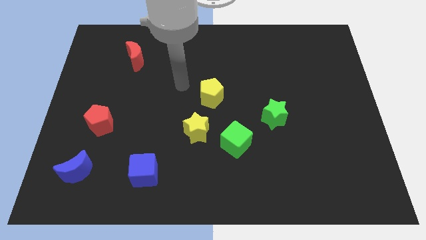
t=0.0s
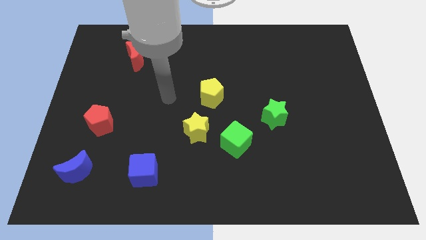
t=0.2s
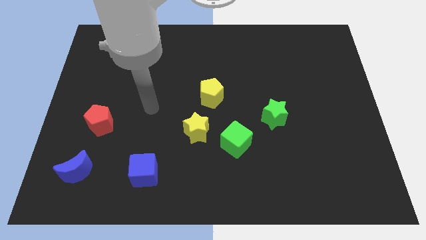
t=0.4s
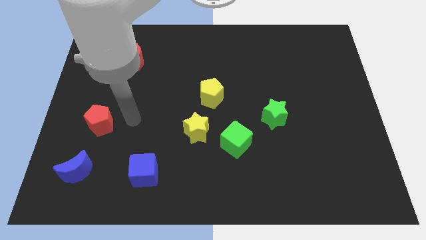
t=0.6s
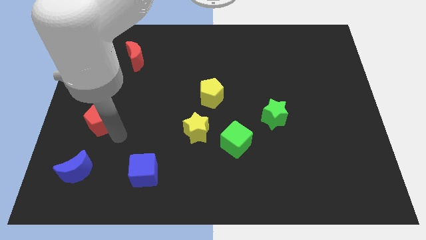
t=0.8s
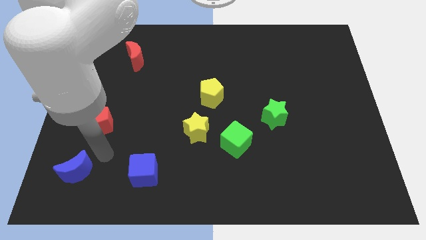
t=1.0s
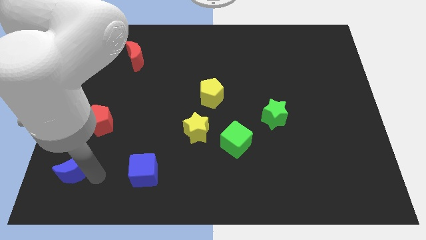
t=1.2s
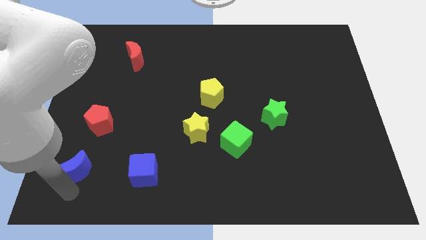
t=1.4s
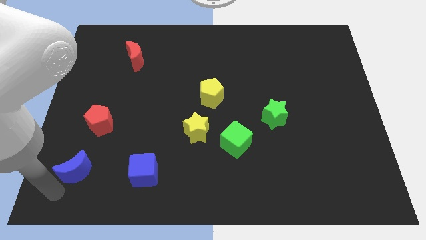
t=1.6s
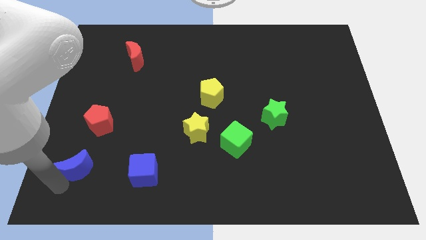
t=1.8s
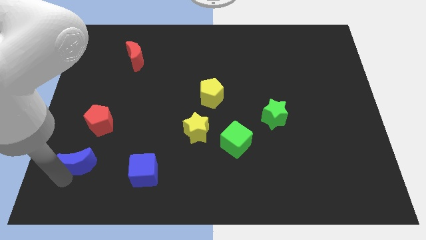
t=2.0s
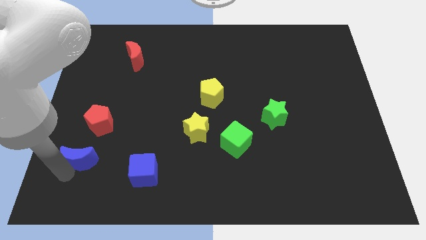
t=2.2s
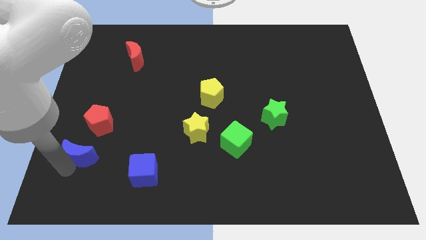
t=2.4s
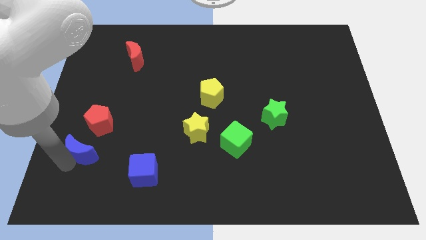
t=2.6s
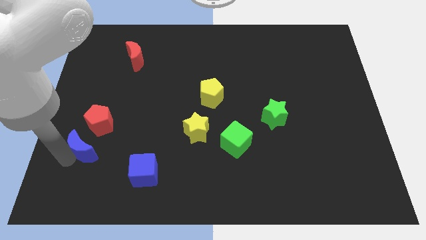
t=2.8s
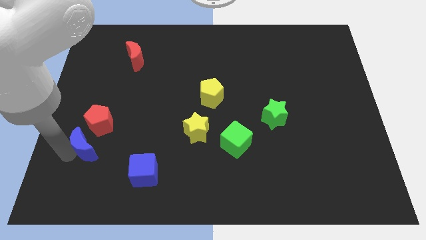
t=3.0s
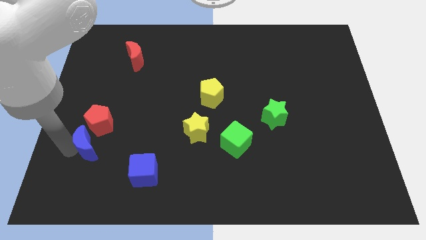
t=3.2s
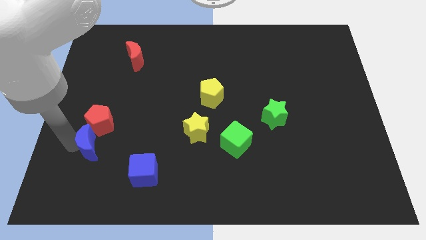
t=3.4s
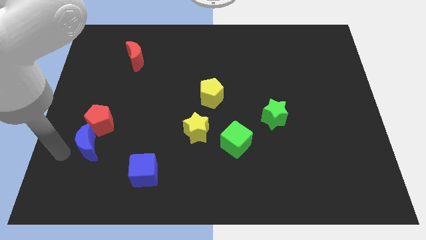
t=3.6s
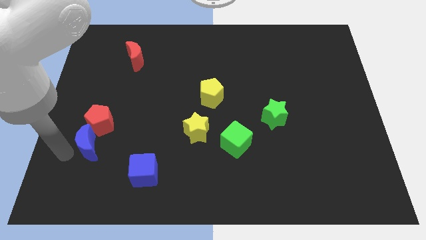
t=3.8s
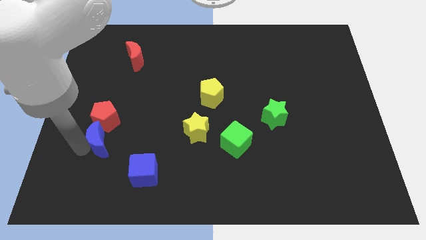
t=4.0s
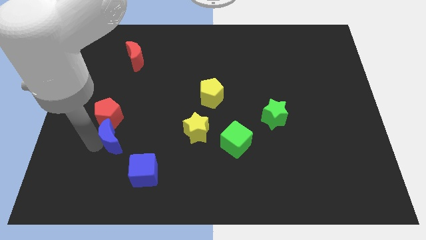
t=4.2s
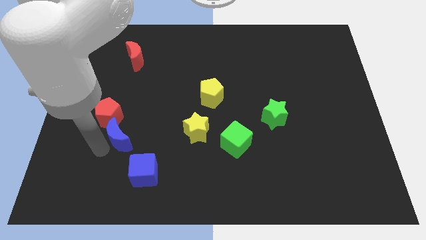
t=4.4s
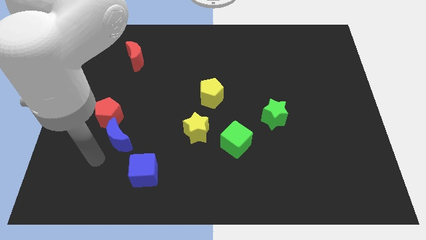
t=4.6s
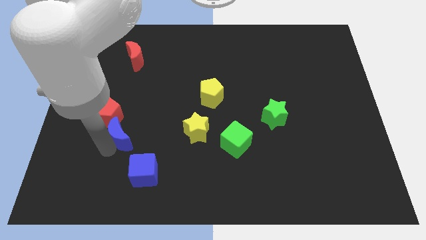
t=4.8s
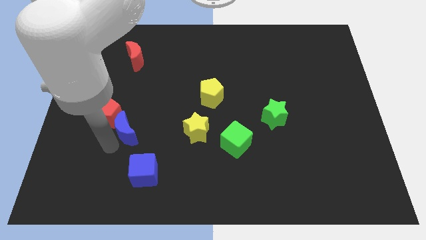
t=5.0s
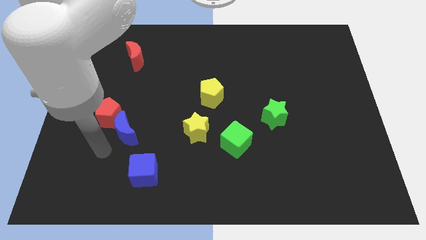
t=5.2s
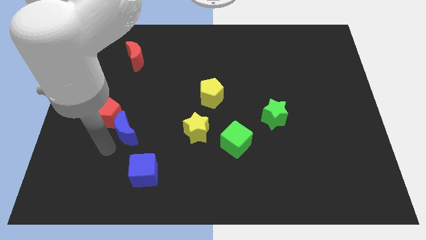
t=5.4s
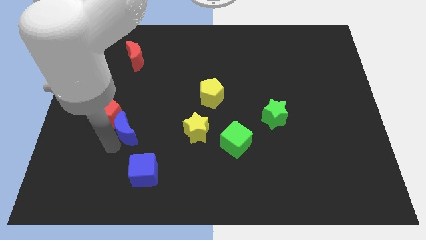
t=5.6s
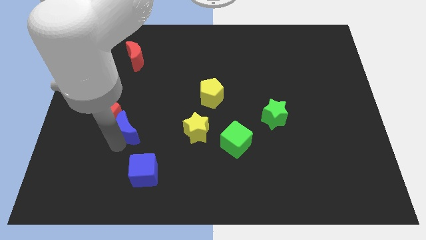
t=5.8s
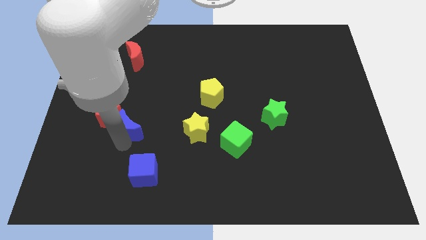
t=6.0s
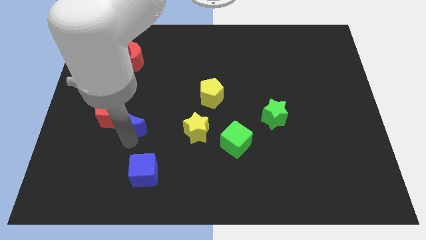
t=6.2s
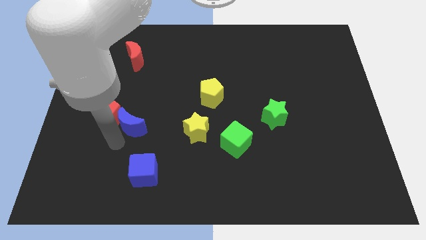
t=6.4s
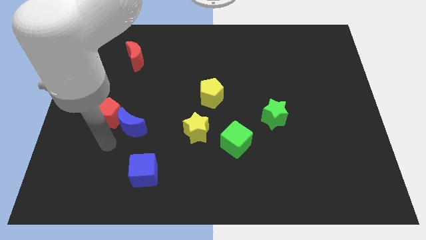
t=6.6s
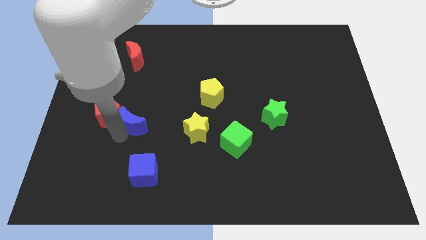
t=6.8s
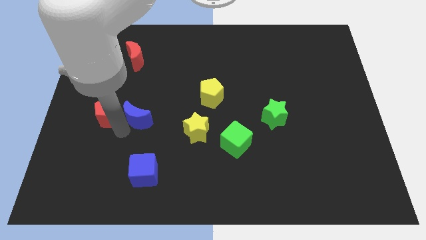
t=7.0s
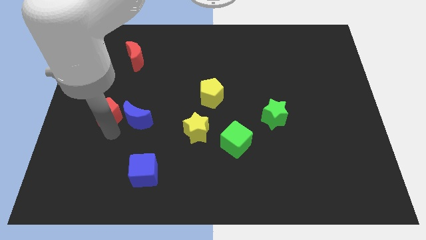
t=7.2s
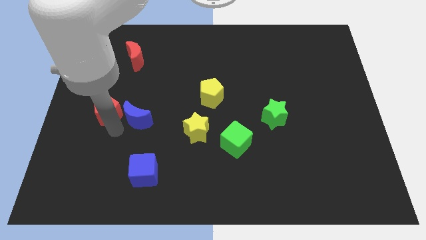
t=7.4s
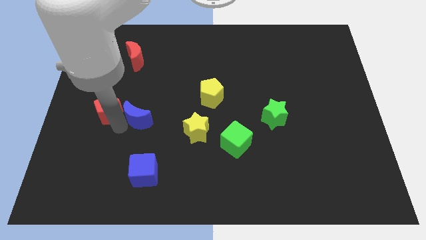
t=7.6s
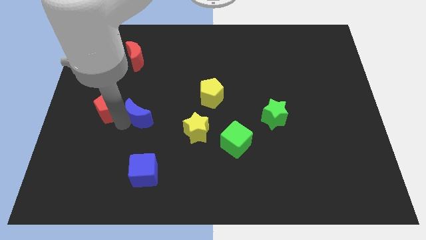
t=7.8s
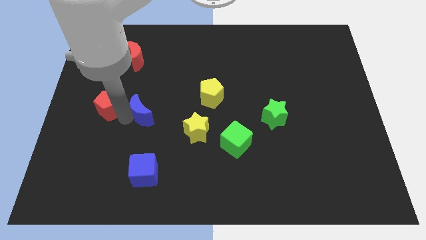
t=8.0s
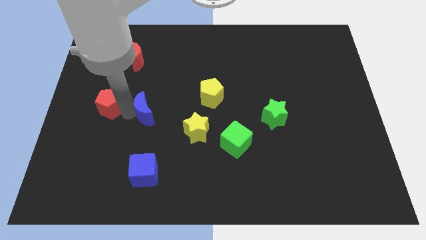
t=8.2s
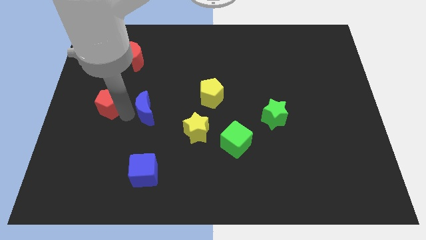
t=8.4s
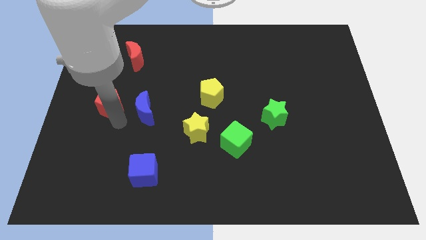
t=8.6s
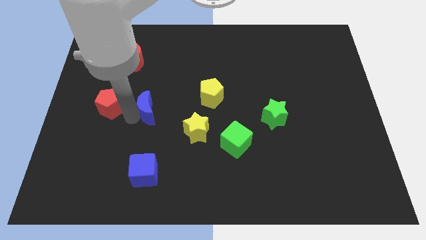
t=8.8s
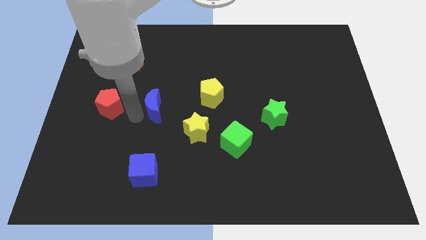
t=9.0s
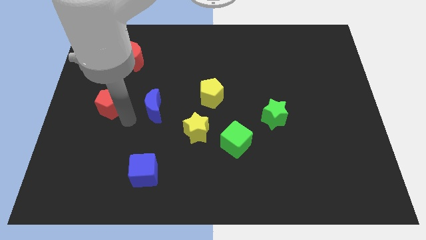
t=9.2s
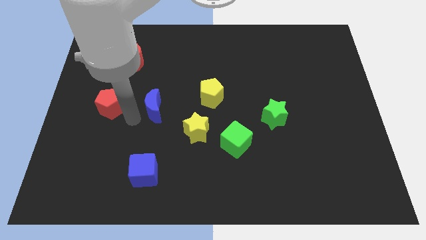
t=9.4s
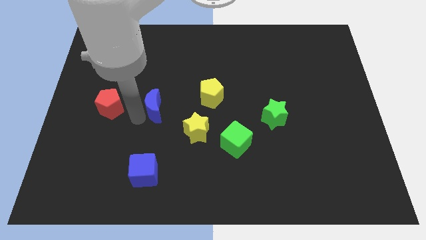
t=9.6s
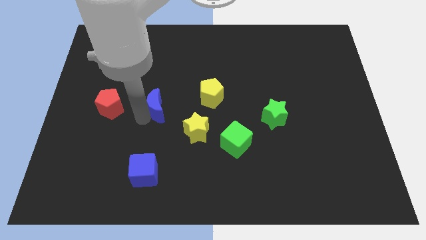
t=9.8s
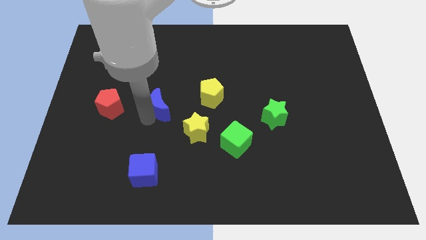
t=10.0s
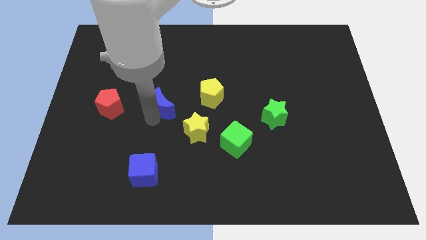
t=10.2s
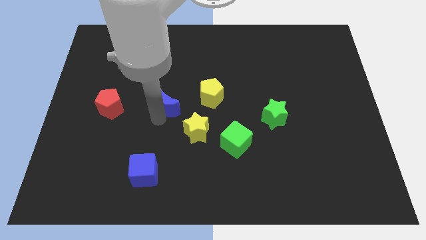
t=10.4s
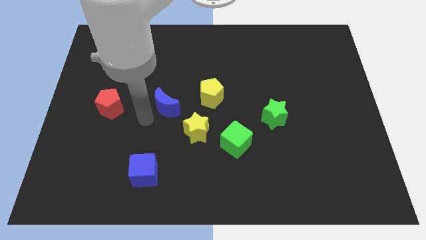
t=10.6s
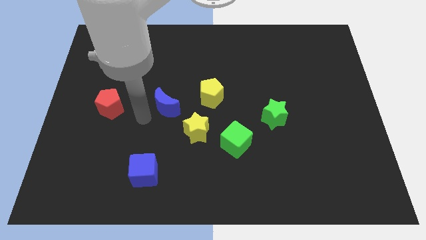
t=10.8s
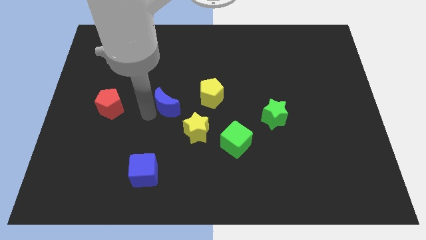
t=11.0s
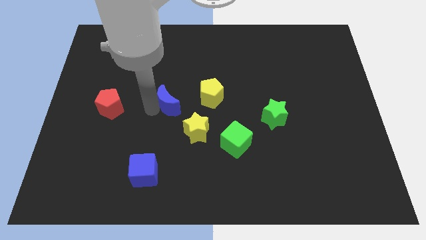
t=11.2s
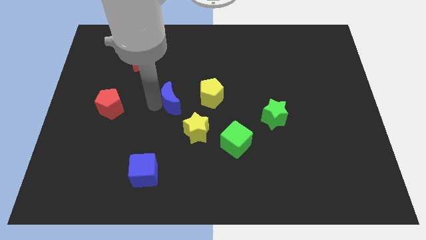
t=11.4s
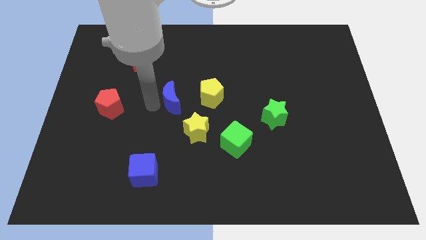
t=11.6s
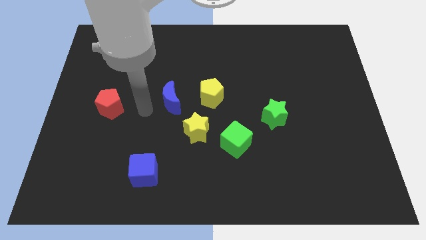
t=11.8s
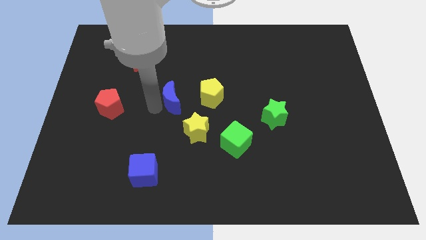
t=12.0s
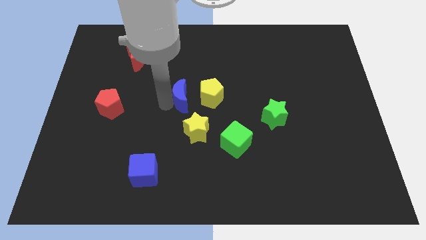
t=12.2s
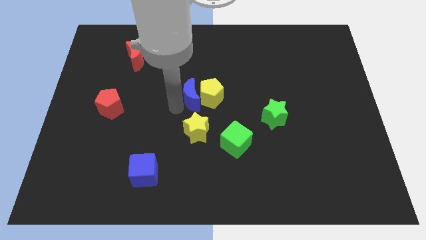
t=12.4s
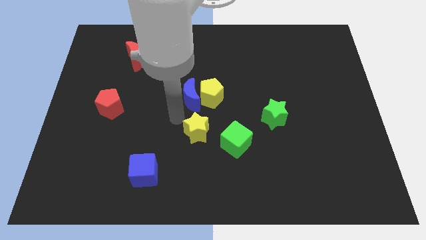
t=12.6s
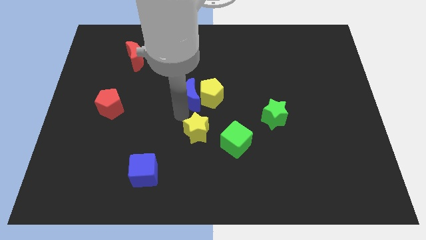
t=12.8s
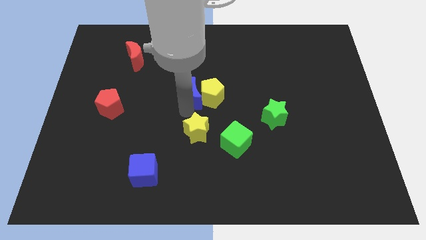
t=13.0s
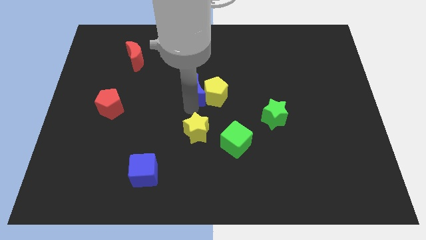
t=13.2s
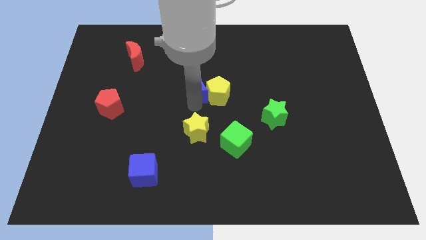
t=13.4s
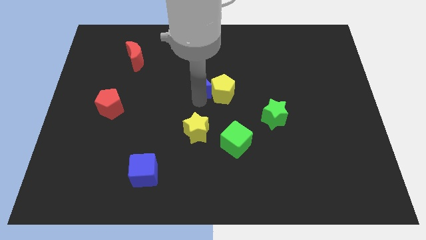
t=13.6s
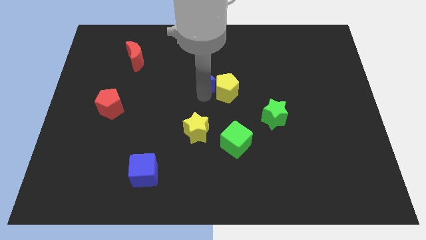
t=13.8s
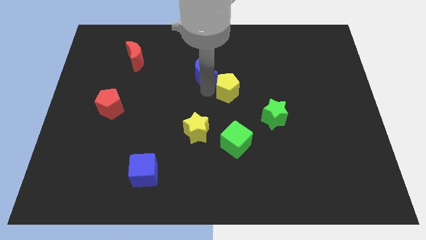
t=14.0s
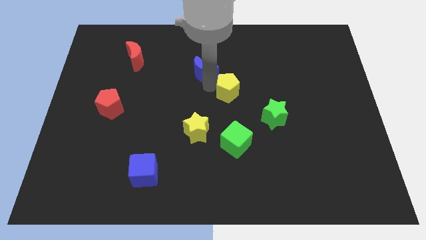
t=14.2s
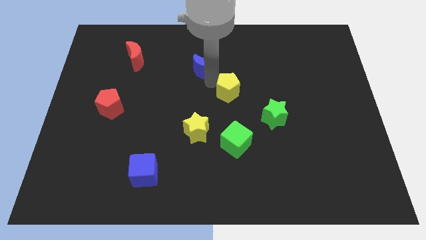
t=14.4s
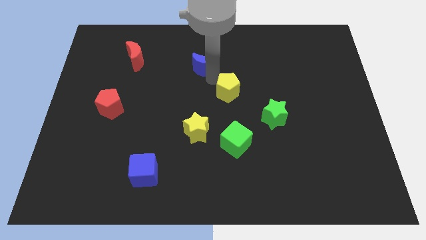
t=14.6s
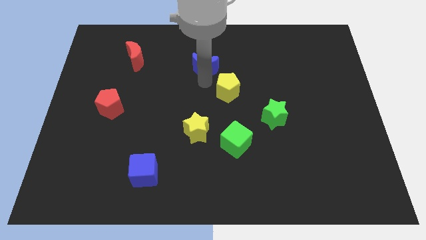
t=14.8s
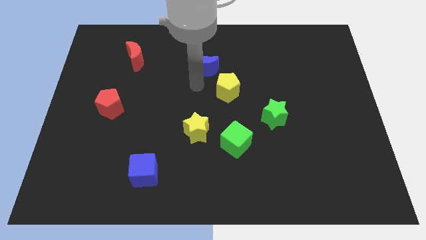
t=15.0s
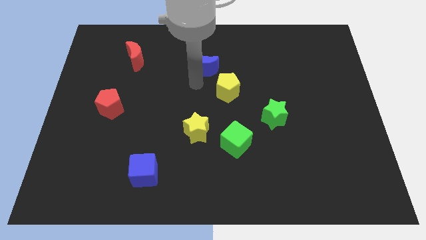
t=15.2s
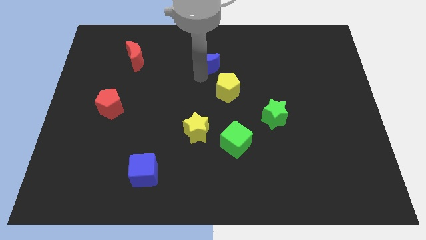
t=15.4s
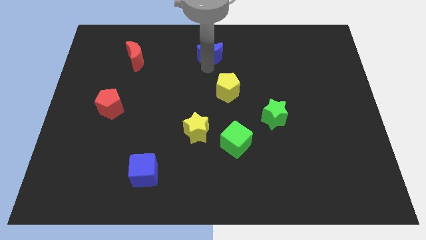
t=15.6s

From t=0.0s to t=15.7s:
slide the blue moon to the towards your base
